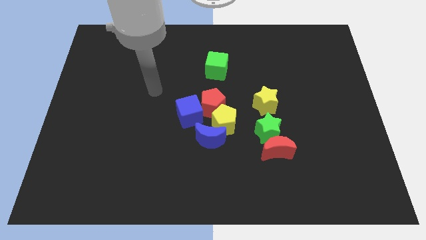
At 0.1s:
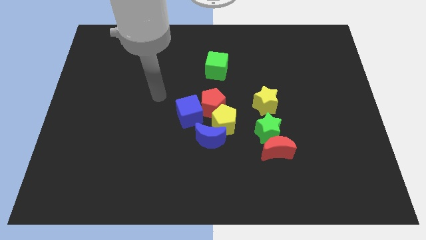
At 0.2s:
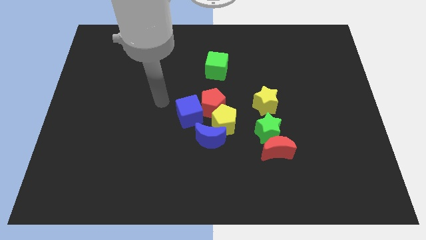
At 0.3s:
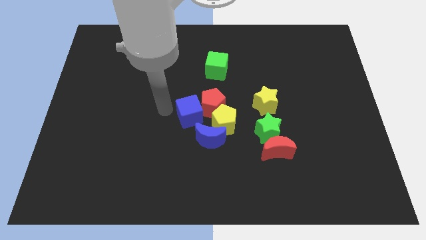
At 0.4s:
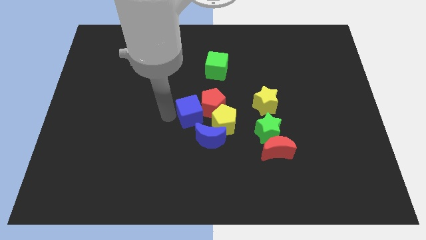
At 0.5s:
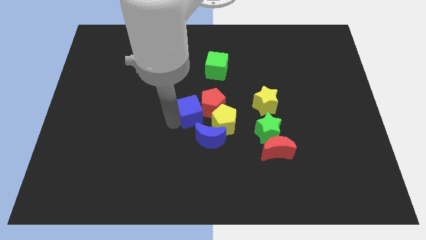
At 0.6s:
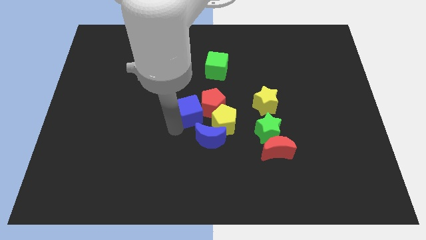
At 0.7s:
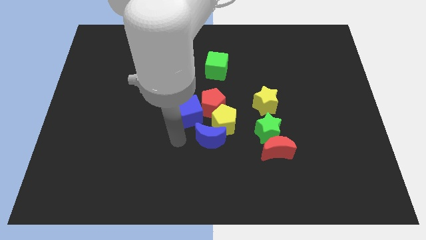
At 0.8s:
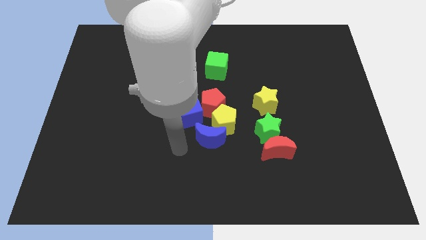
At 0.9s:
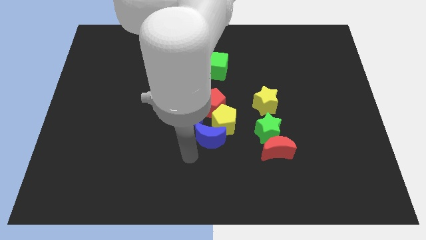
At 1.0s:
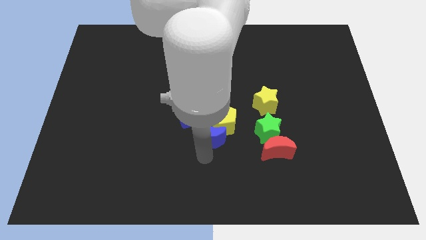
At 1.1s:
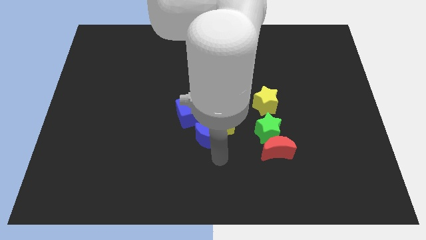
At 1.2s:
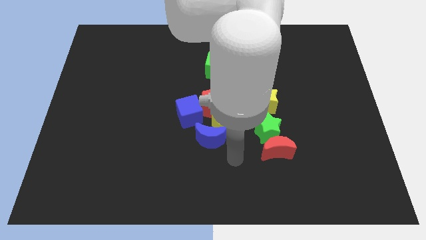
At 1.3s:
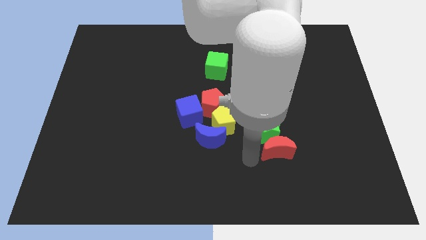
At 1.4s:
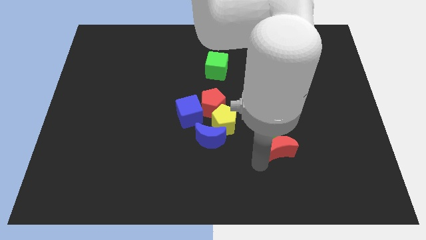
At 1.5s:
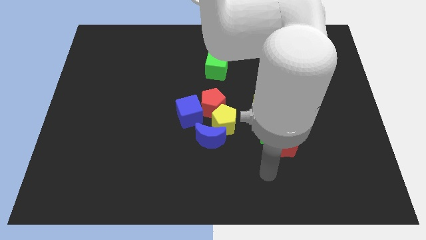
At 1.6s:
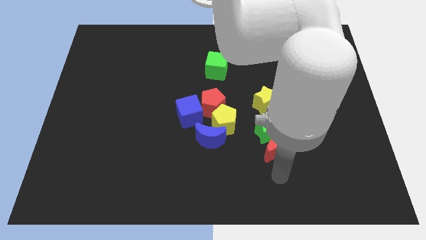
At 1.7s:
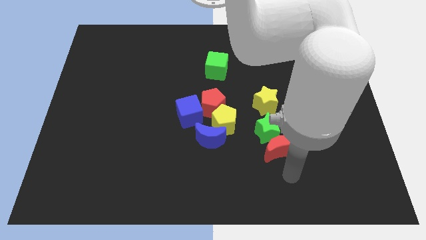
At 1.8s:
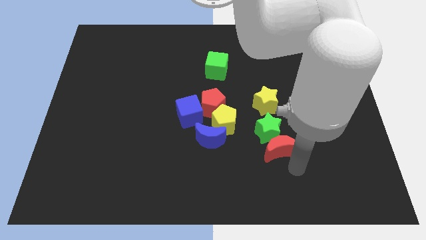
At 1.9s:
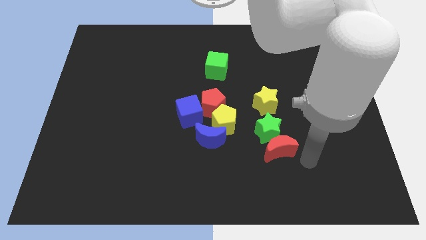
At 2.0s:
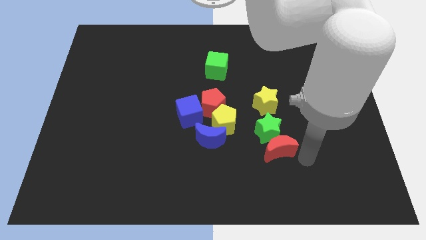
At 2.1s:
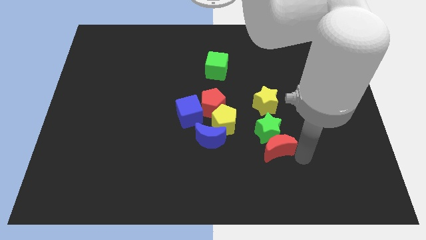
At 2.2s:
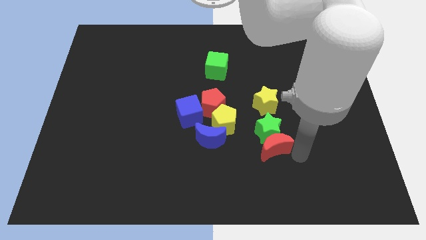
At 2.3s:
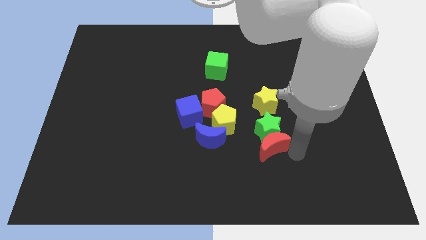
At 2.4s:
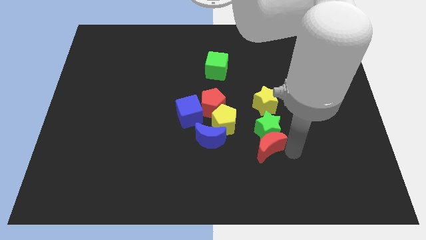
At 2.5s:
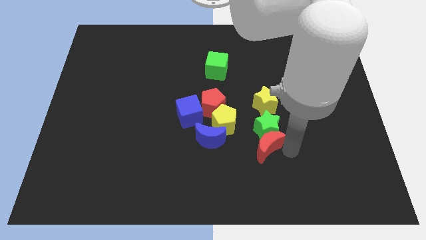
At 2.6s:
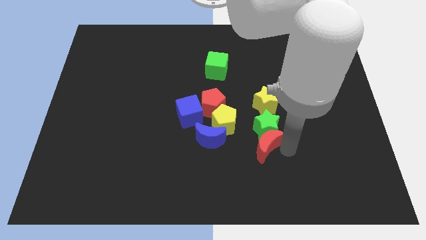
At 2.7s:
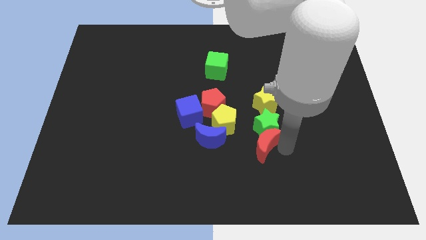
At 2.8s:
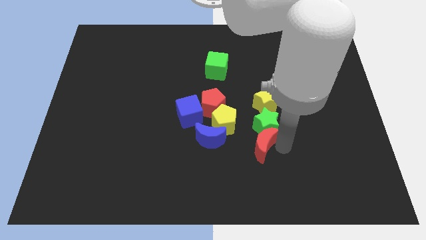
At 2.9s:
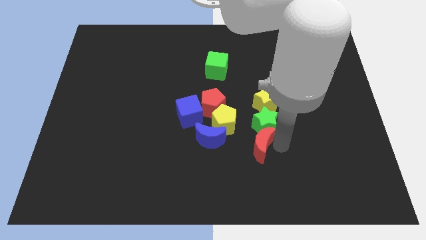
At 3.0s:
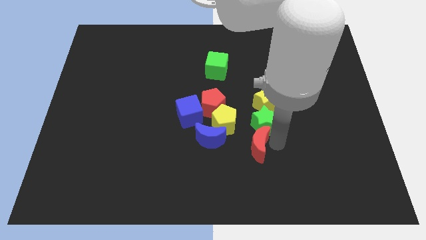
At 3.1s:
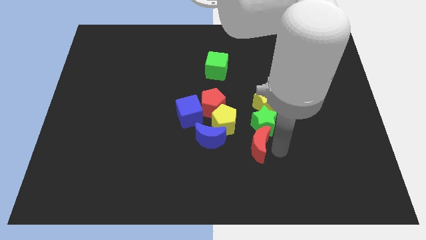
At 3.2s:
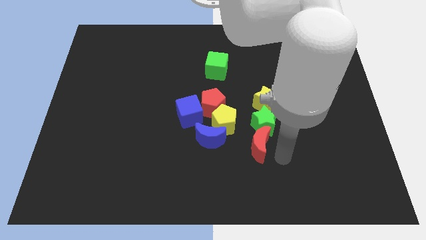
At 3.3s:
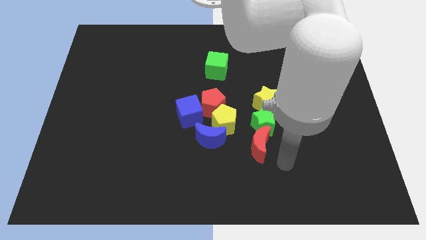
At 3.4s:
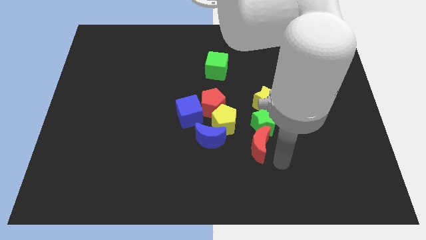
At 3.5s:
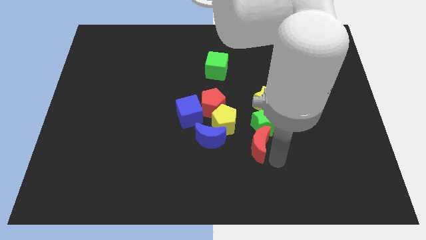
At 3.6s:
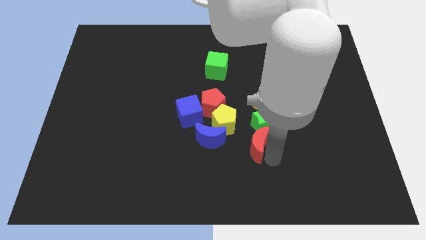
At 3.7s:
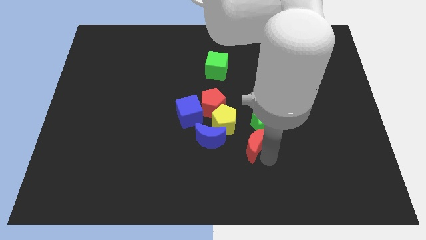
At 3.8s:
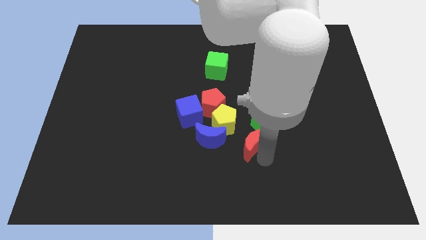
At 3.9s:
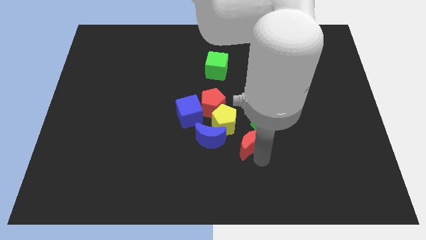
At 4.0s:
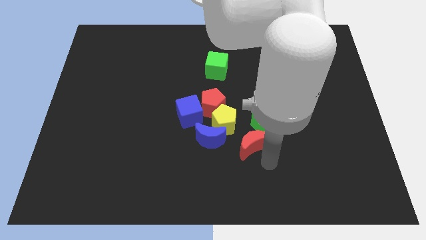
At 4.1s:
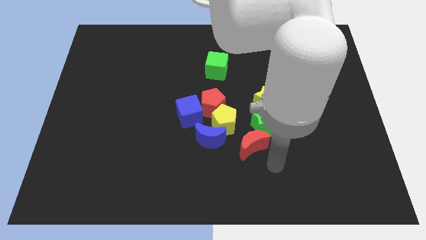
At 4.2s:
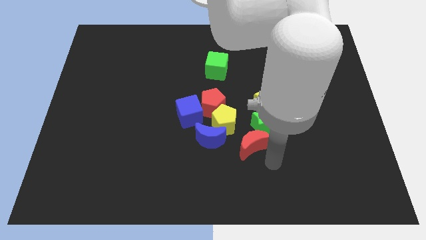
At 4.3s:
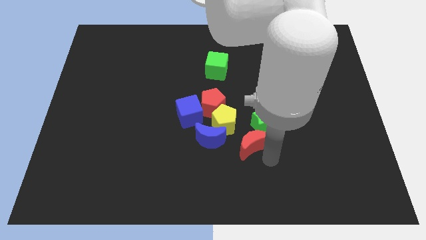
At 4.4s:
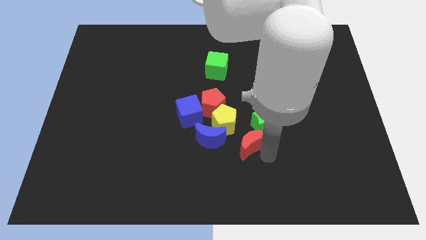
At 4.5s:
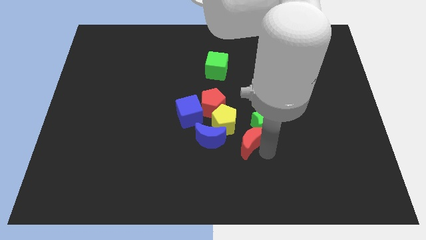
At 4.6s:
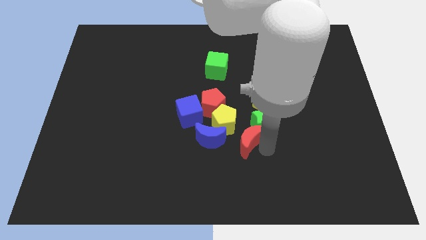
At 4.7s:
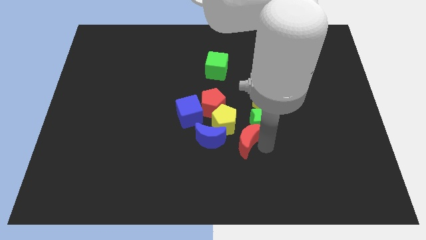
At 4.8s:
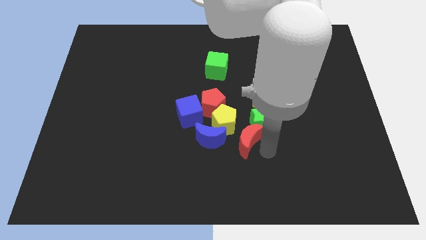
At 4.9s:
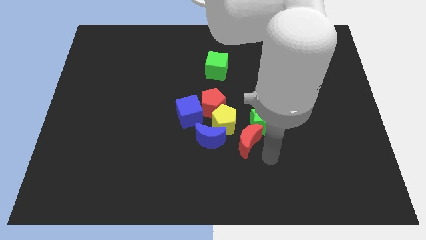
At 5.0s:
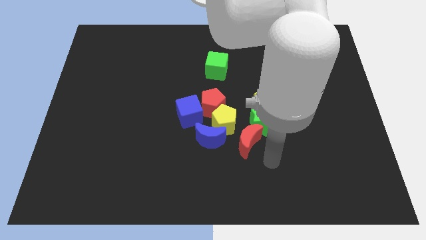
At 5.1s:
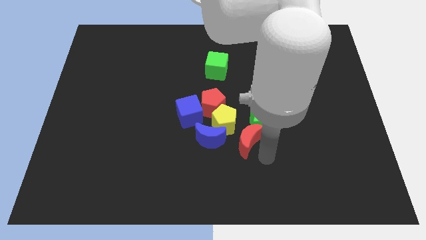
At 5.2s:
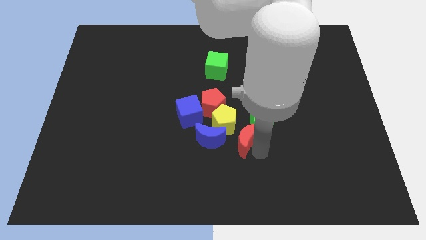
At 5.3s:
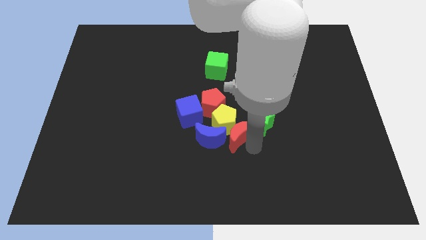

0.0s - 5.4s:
move the red moon to the yellow pentagon

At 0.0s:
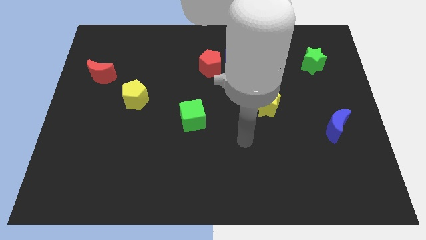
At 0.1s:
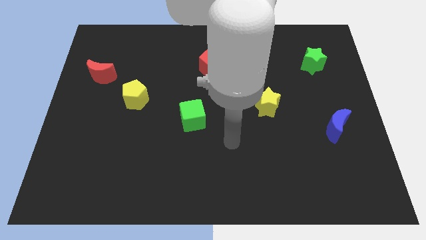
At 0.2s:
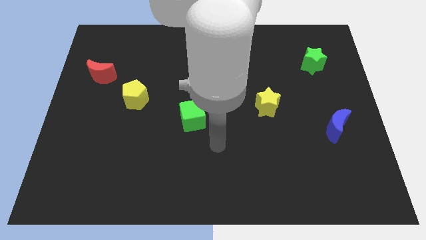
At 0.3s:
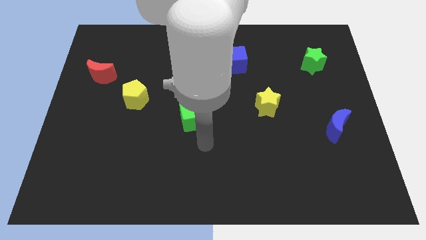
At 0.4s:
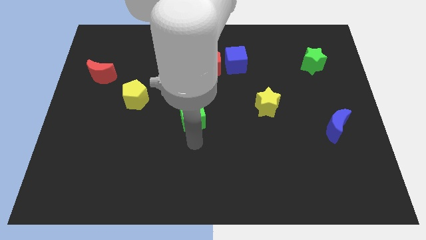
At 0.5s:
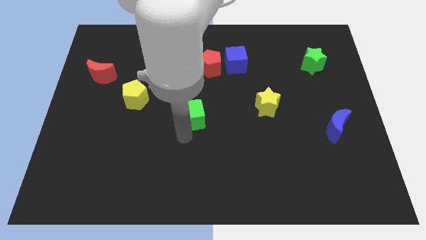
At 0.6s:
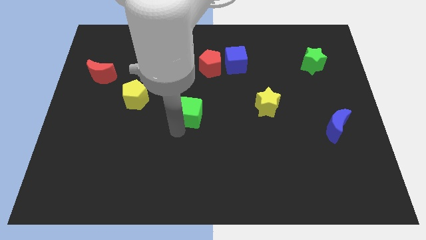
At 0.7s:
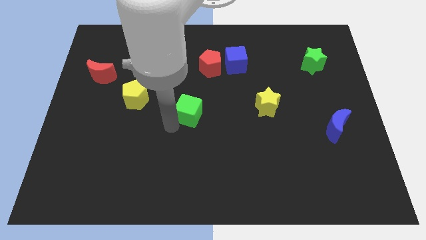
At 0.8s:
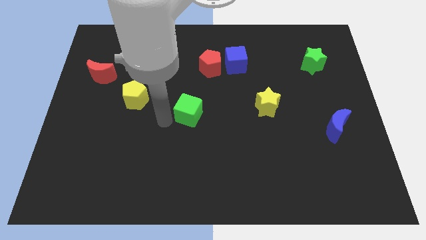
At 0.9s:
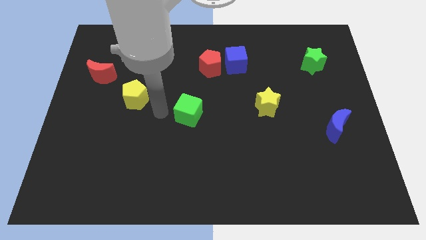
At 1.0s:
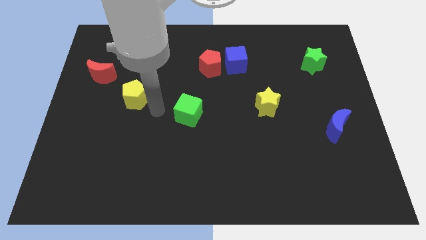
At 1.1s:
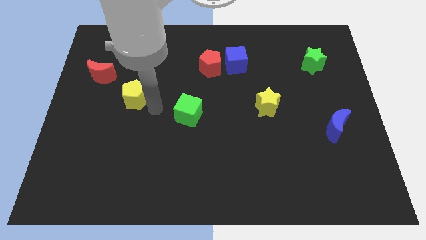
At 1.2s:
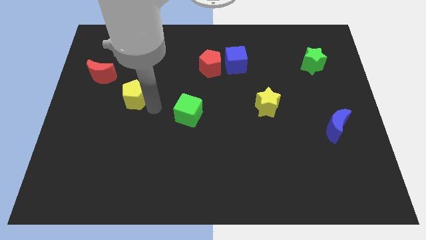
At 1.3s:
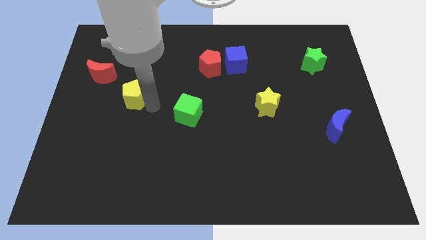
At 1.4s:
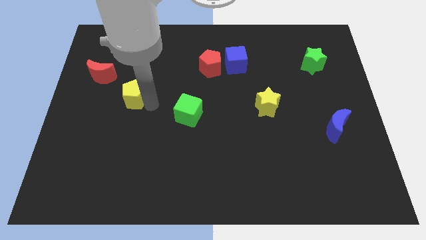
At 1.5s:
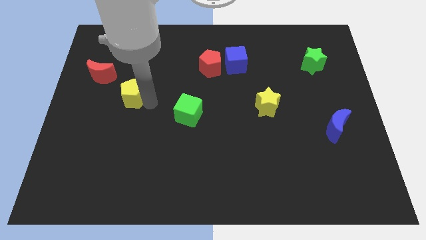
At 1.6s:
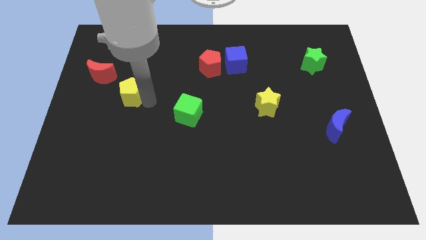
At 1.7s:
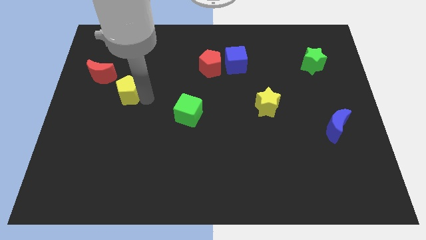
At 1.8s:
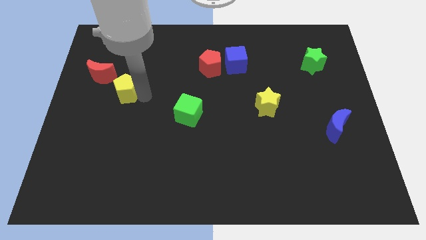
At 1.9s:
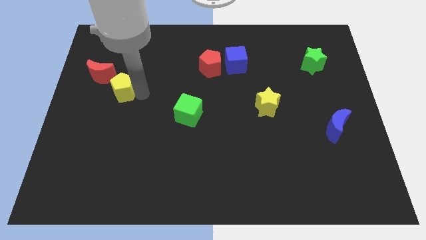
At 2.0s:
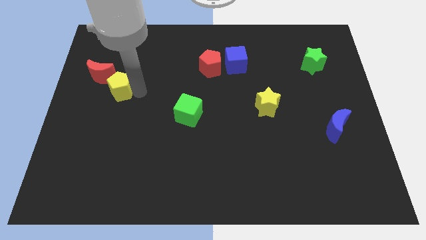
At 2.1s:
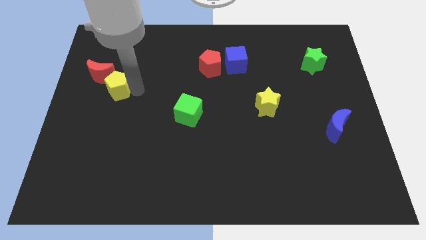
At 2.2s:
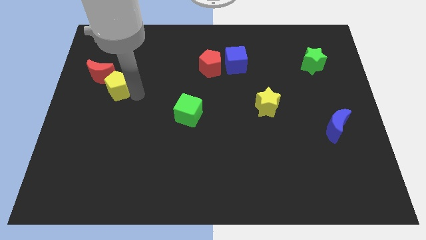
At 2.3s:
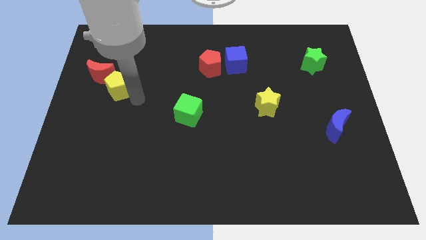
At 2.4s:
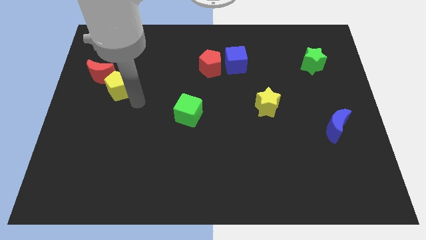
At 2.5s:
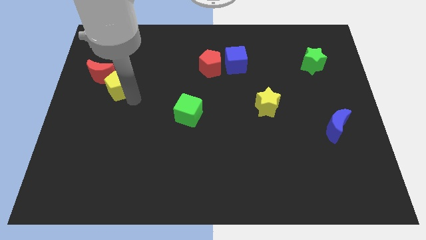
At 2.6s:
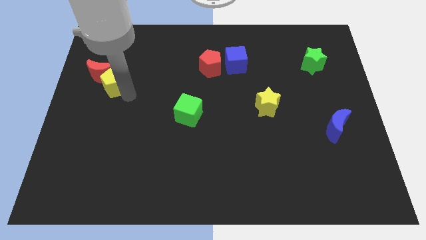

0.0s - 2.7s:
put the yellow pentagon to the red moon

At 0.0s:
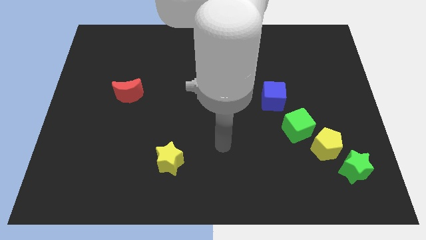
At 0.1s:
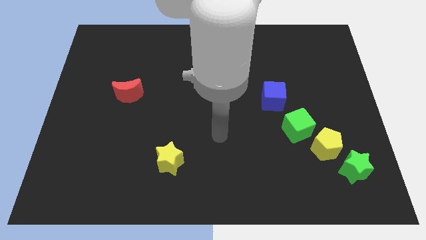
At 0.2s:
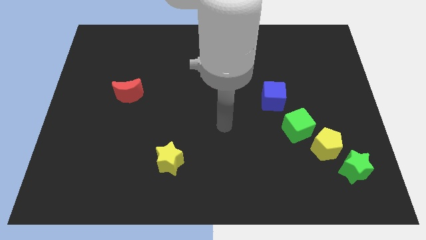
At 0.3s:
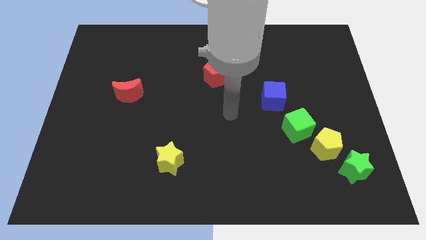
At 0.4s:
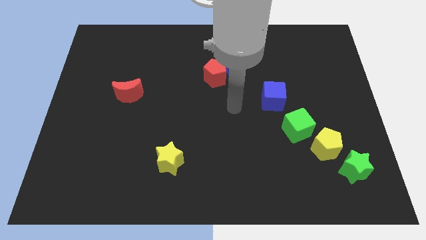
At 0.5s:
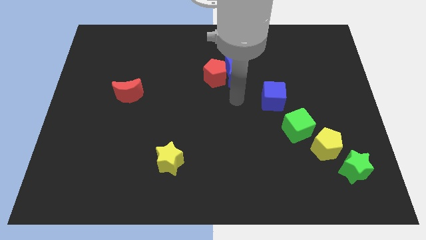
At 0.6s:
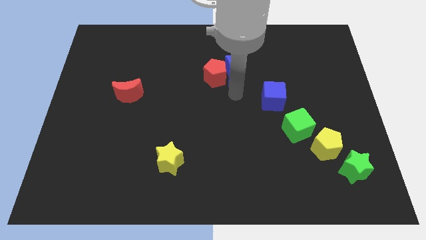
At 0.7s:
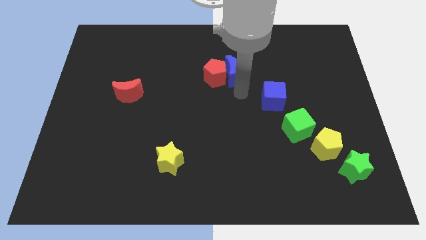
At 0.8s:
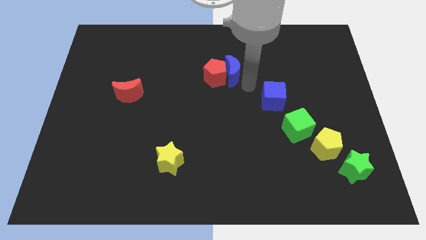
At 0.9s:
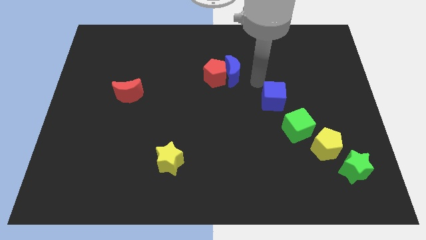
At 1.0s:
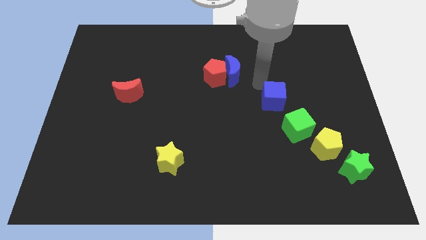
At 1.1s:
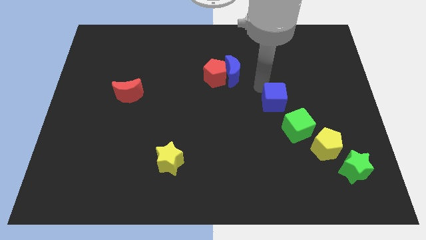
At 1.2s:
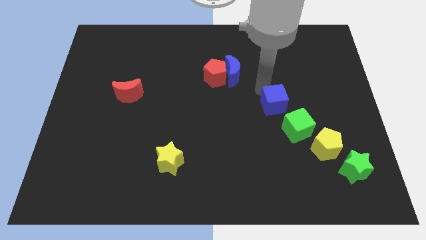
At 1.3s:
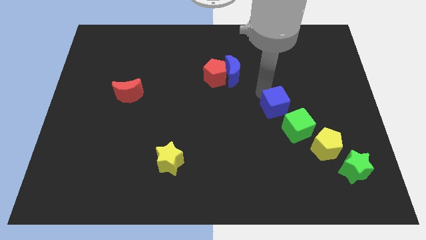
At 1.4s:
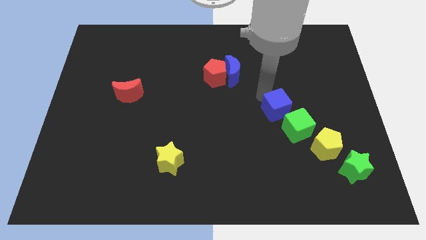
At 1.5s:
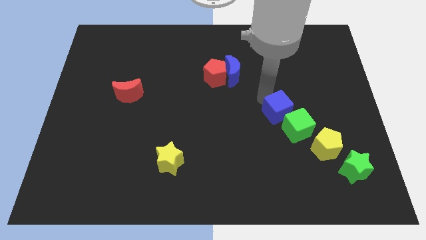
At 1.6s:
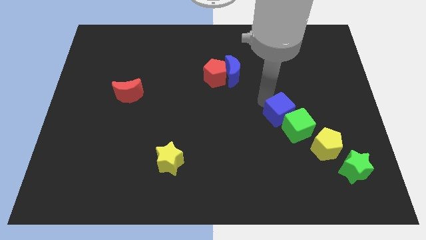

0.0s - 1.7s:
move the blue cube next to the green cube
